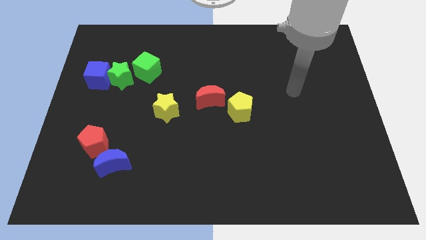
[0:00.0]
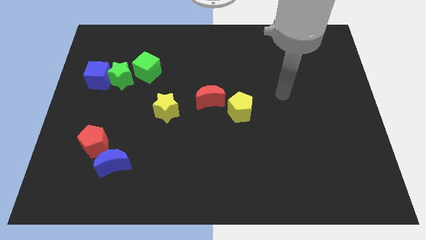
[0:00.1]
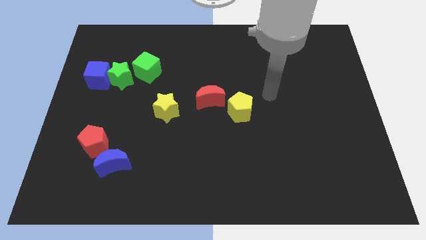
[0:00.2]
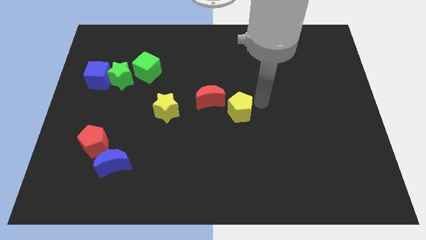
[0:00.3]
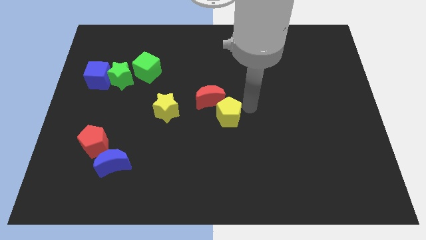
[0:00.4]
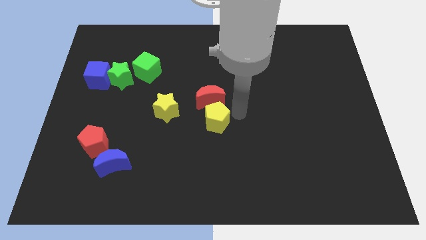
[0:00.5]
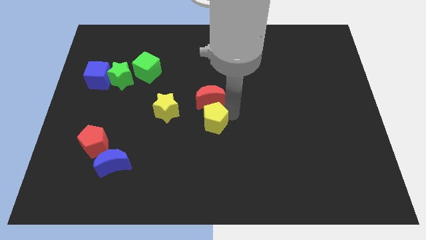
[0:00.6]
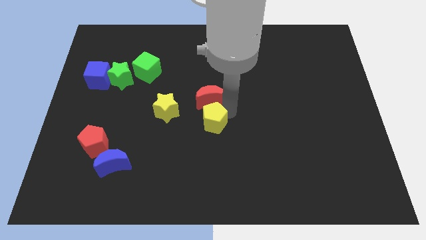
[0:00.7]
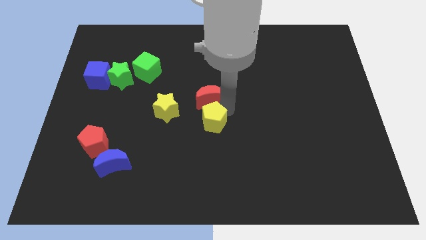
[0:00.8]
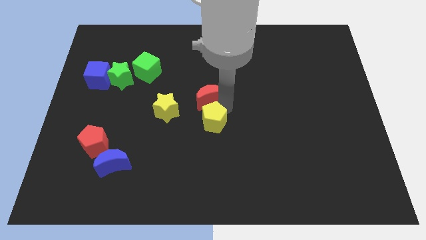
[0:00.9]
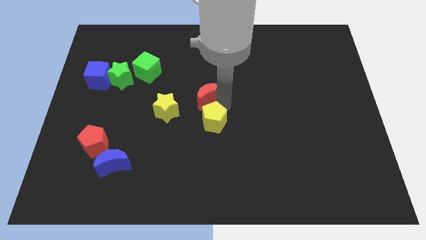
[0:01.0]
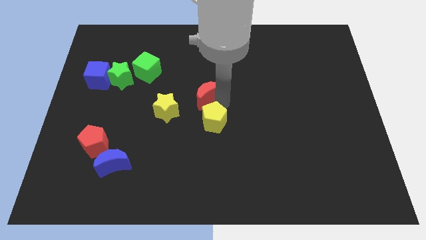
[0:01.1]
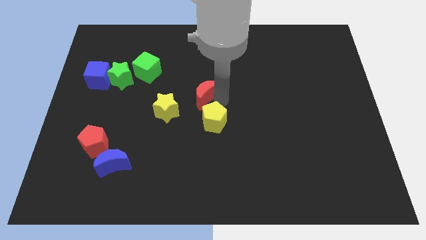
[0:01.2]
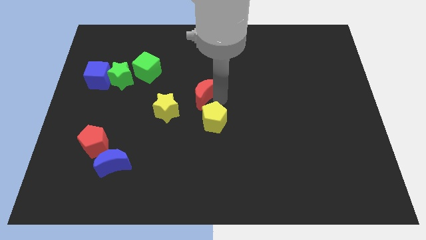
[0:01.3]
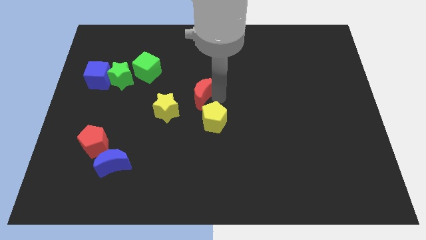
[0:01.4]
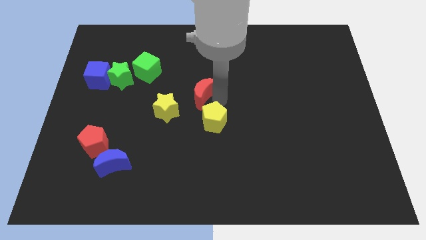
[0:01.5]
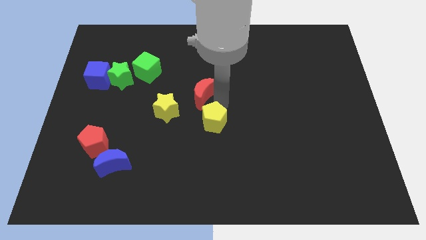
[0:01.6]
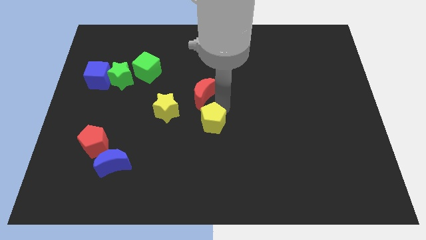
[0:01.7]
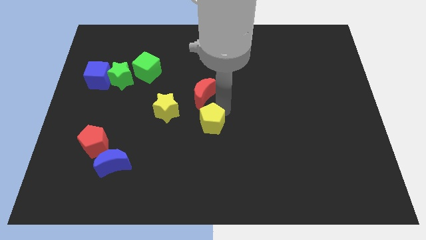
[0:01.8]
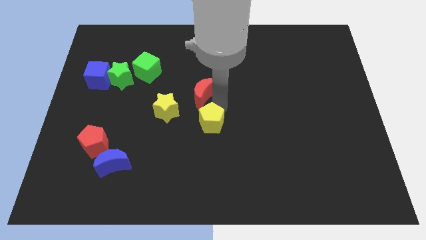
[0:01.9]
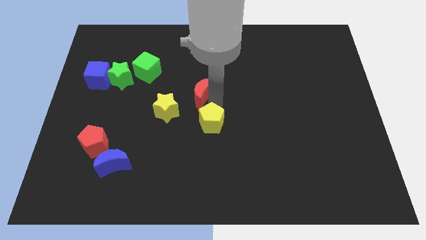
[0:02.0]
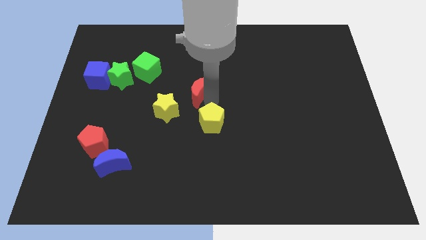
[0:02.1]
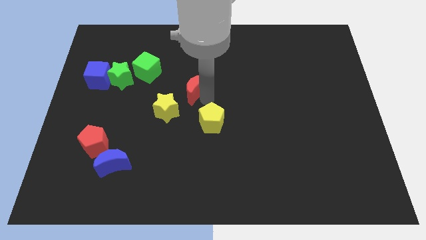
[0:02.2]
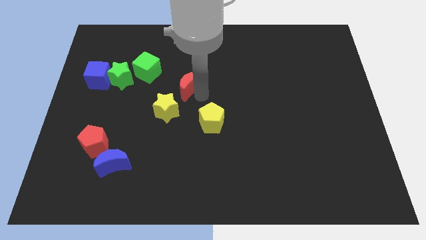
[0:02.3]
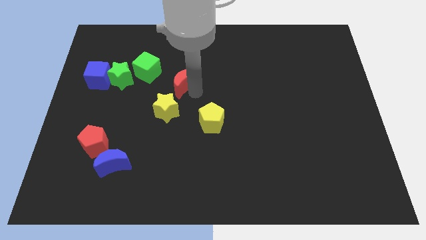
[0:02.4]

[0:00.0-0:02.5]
slightly slide the red moon upwards and to the left

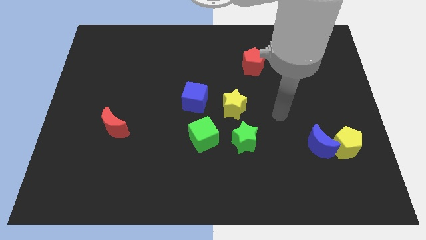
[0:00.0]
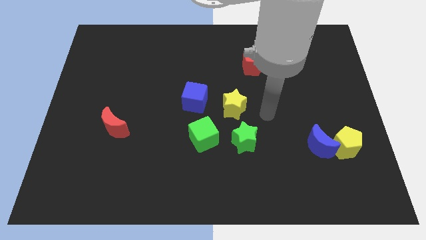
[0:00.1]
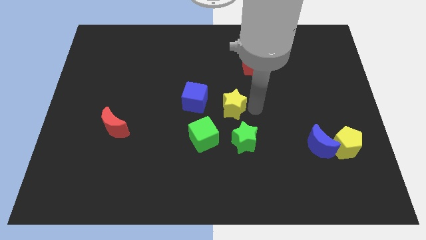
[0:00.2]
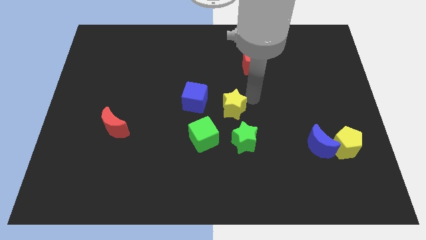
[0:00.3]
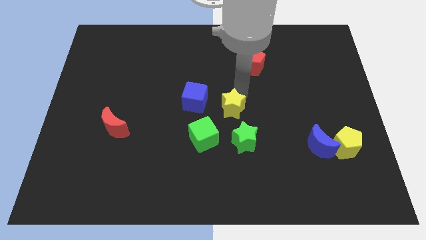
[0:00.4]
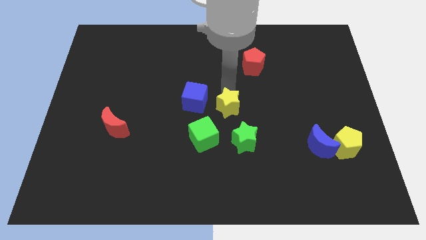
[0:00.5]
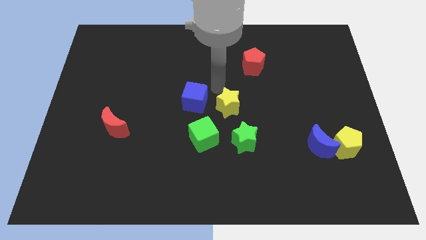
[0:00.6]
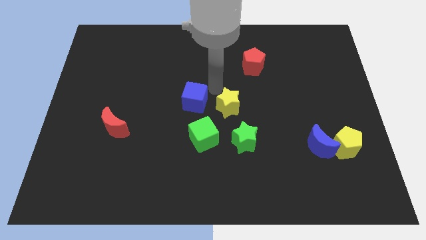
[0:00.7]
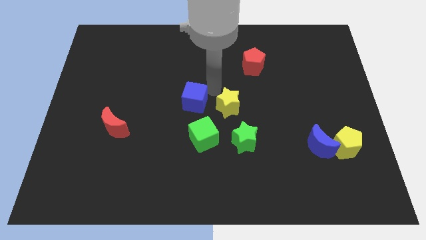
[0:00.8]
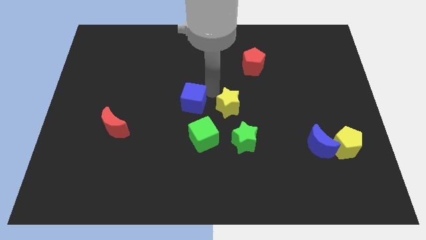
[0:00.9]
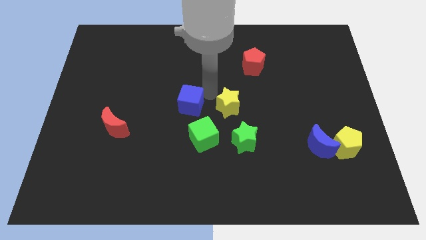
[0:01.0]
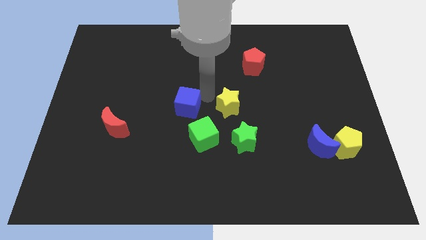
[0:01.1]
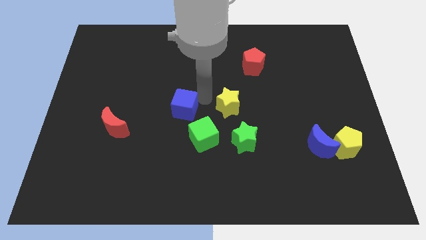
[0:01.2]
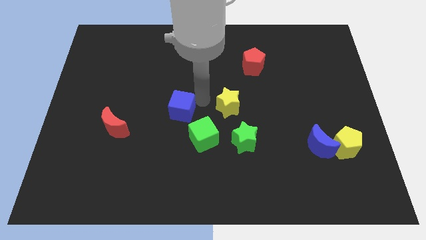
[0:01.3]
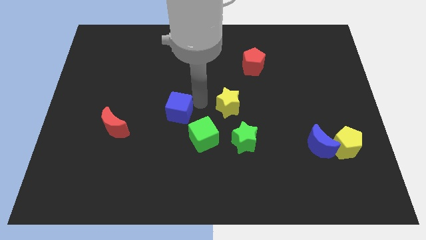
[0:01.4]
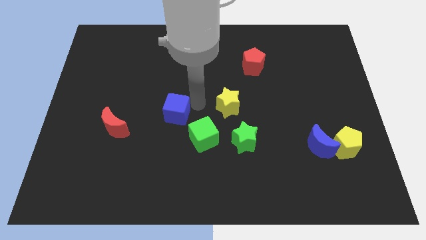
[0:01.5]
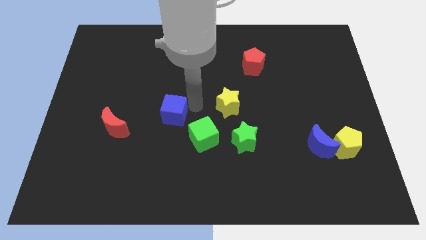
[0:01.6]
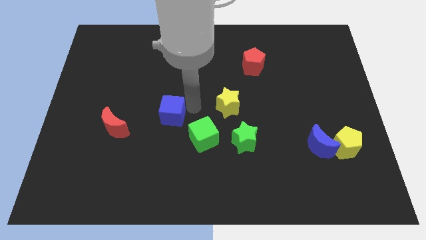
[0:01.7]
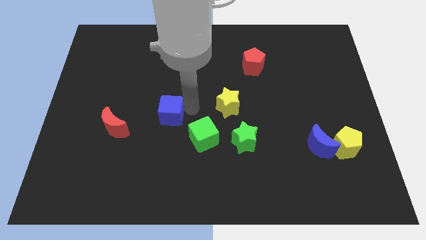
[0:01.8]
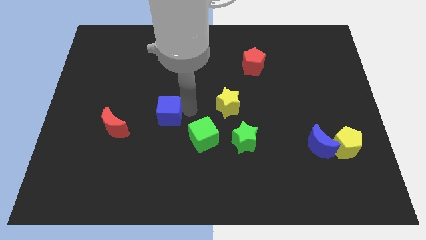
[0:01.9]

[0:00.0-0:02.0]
push the blue cube diagonally downwards and to the left a little bit

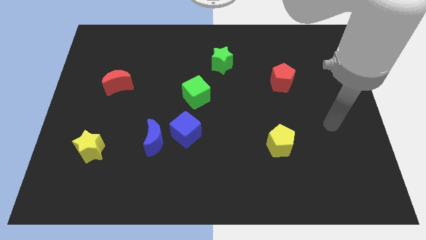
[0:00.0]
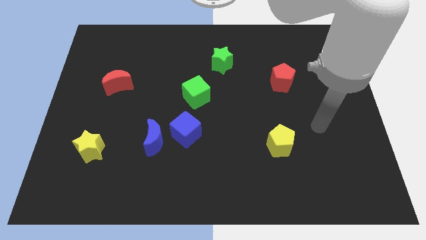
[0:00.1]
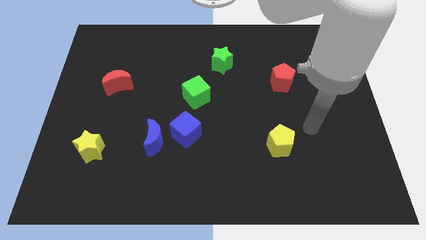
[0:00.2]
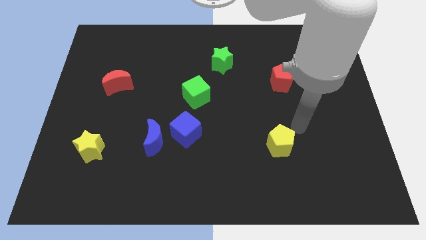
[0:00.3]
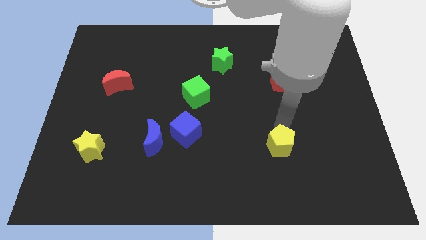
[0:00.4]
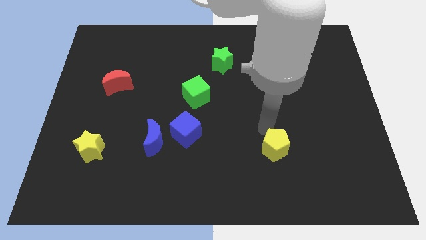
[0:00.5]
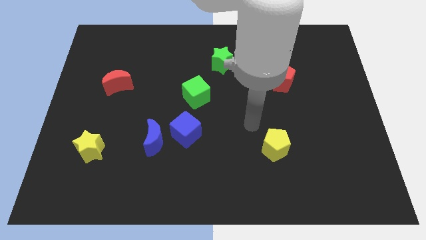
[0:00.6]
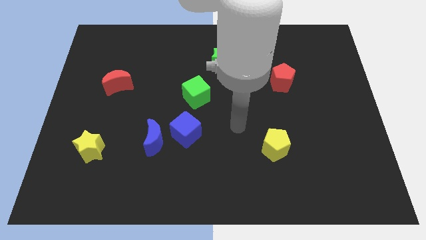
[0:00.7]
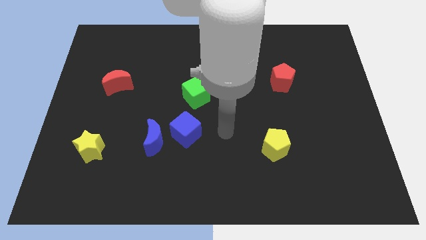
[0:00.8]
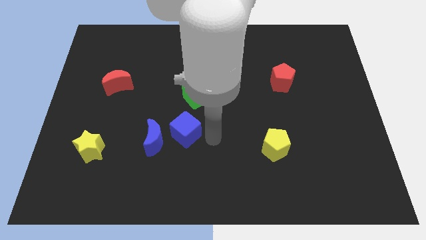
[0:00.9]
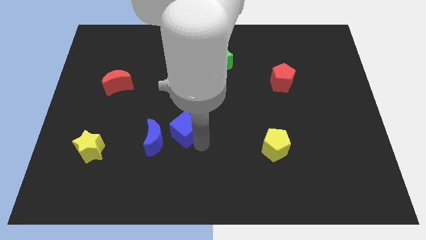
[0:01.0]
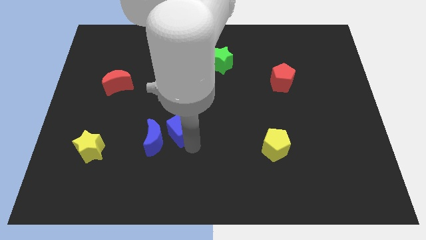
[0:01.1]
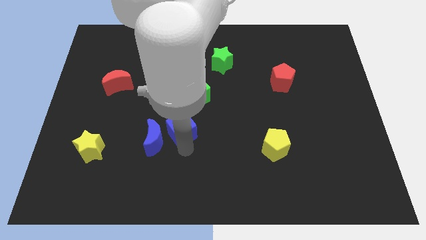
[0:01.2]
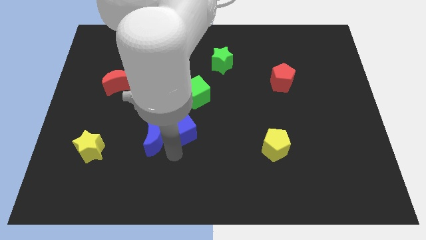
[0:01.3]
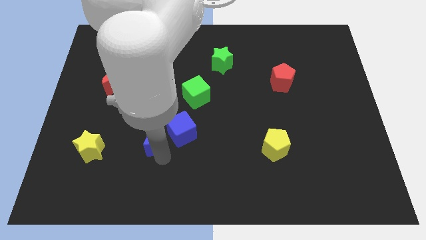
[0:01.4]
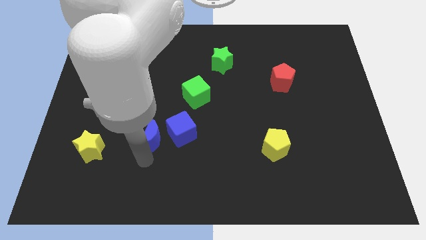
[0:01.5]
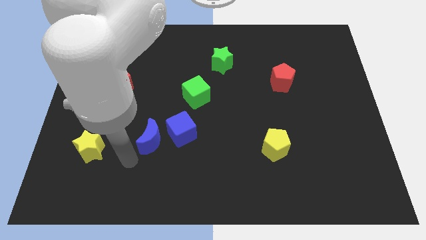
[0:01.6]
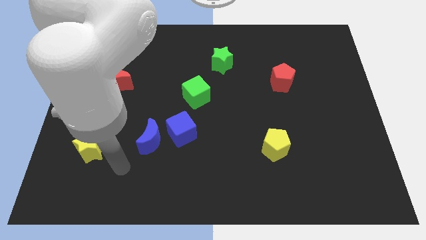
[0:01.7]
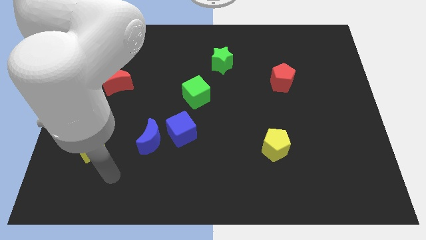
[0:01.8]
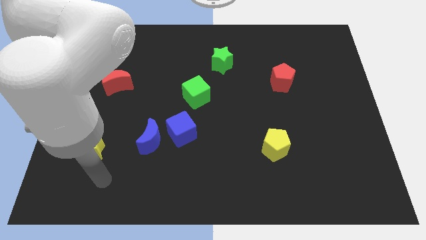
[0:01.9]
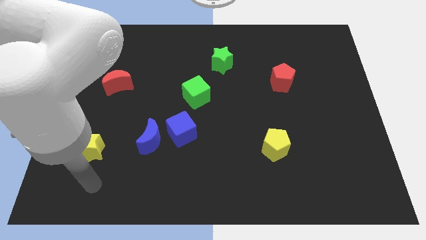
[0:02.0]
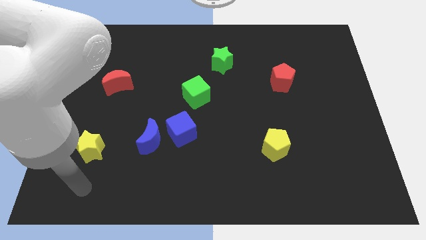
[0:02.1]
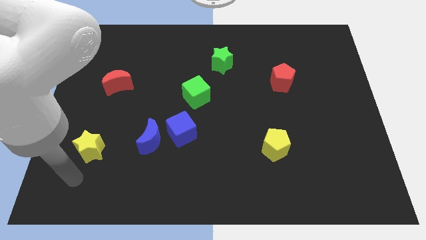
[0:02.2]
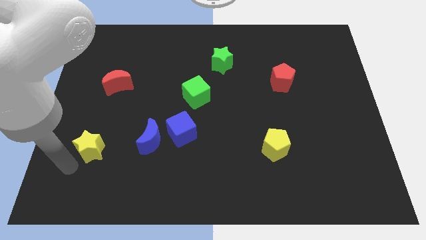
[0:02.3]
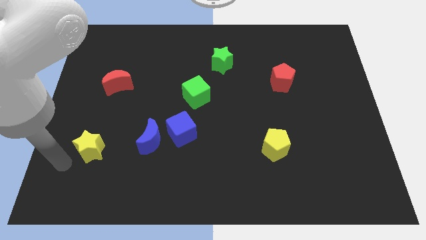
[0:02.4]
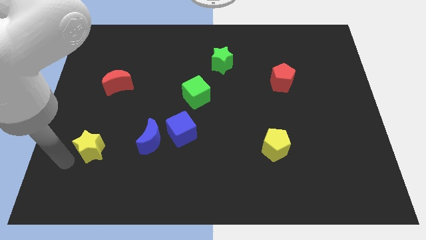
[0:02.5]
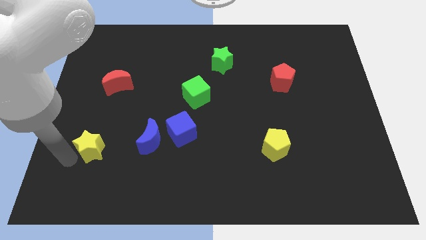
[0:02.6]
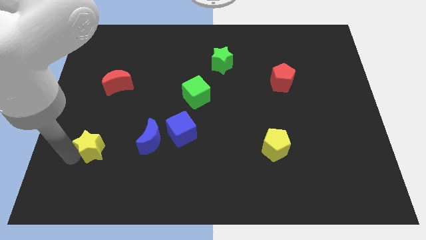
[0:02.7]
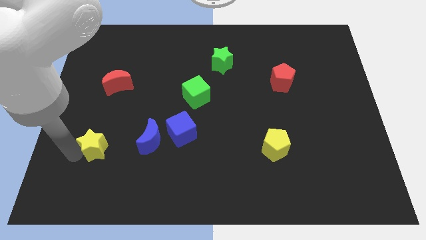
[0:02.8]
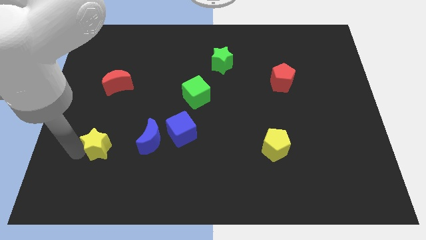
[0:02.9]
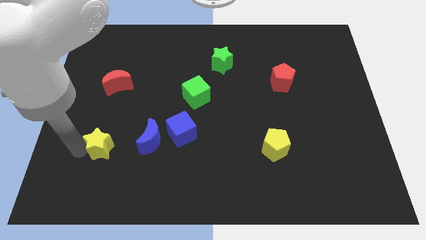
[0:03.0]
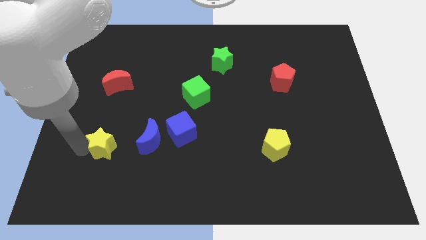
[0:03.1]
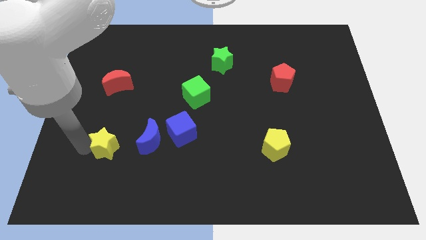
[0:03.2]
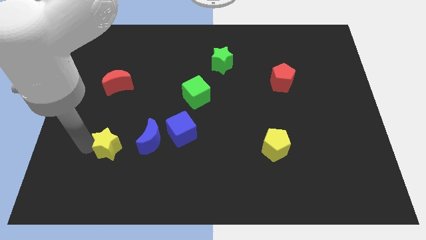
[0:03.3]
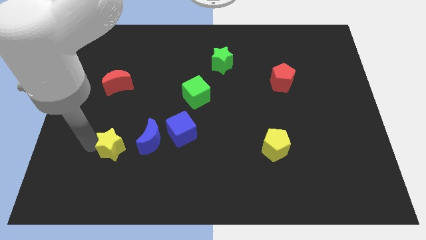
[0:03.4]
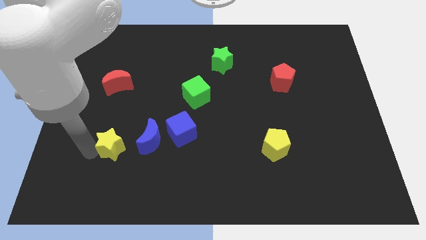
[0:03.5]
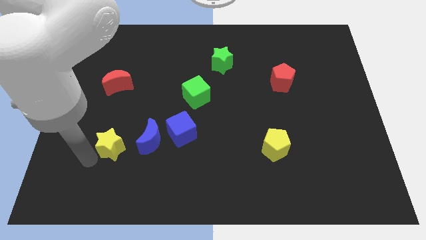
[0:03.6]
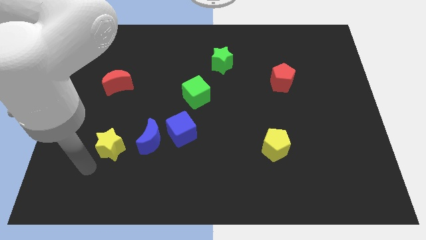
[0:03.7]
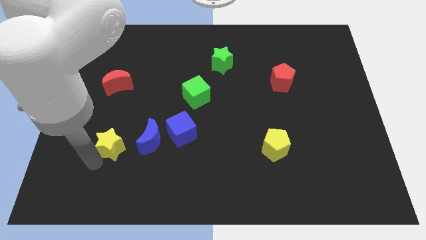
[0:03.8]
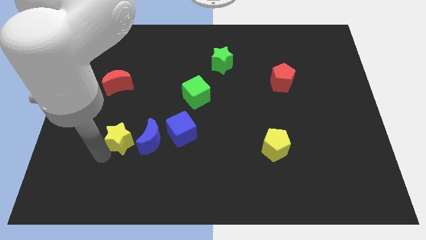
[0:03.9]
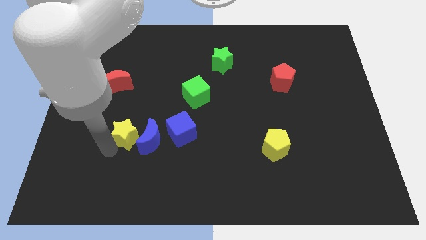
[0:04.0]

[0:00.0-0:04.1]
push the yellow star diagonally up and to the right a bit
